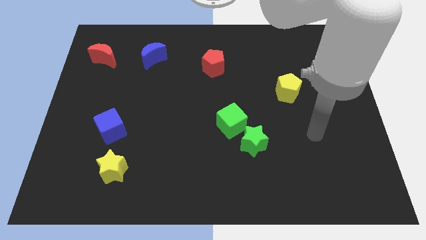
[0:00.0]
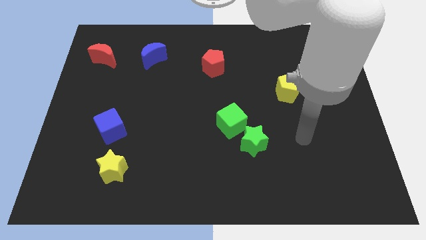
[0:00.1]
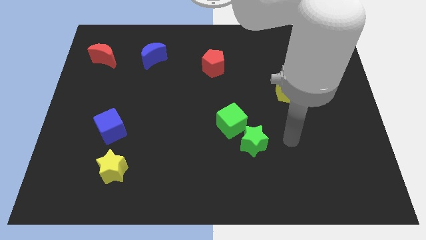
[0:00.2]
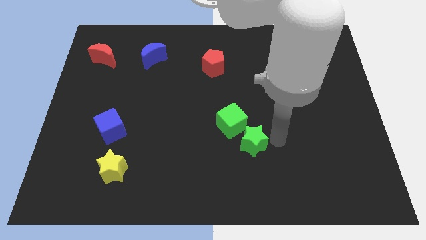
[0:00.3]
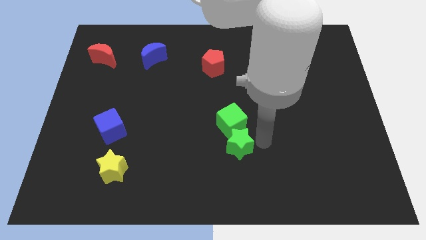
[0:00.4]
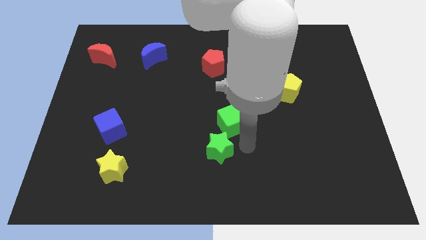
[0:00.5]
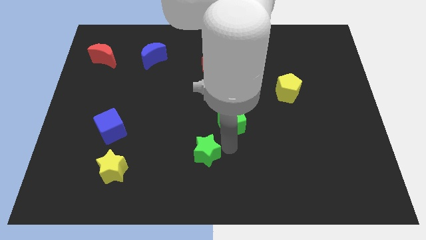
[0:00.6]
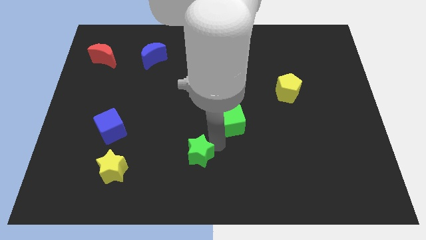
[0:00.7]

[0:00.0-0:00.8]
pull the green cube apart from the green star

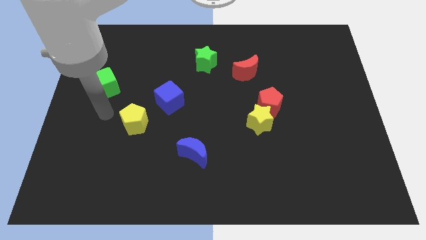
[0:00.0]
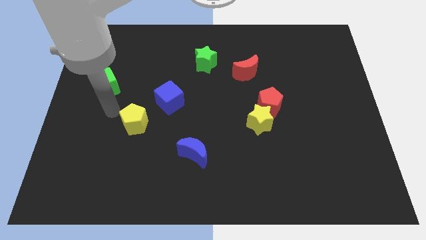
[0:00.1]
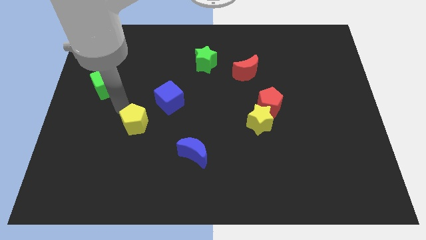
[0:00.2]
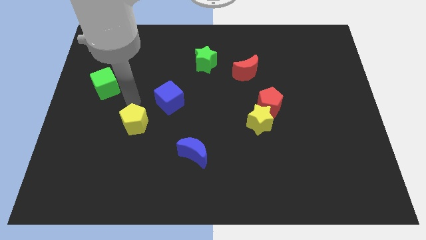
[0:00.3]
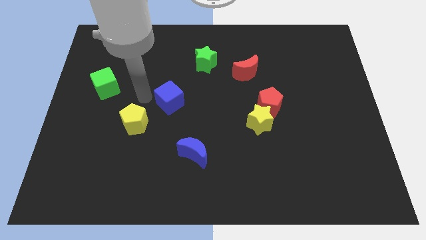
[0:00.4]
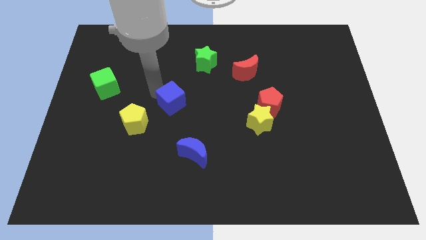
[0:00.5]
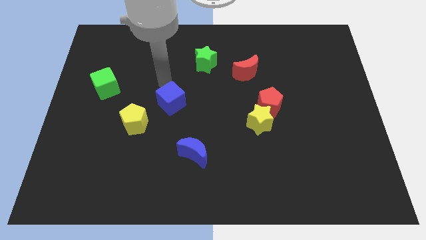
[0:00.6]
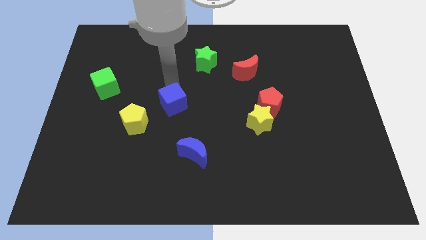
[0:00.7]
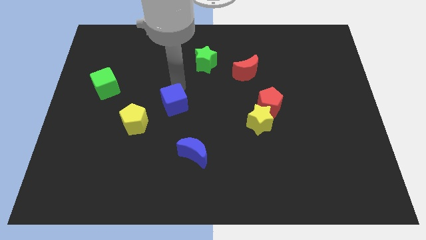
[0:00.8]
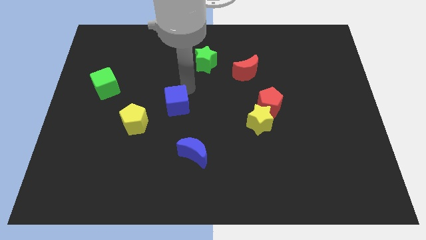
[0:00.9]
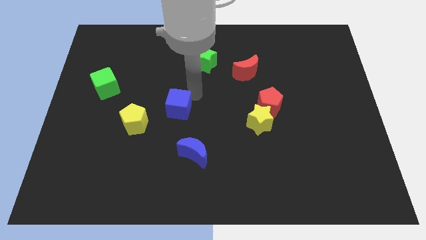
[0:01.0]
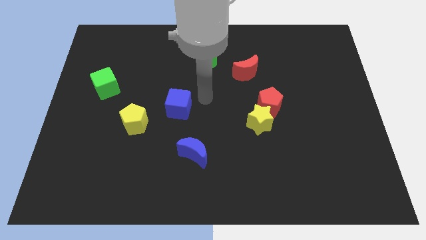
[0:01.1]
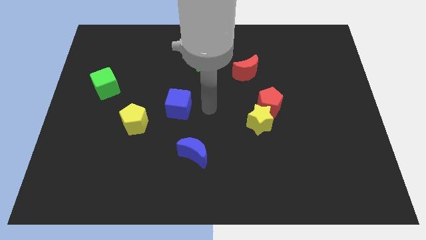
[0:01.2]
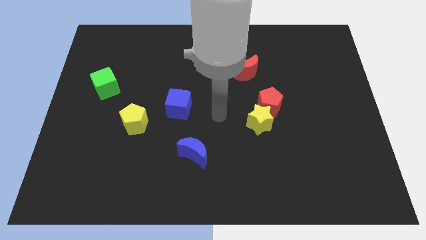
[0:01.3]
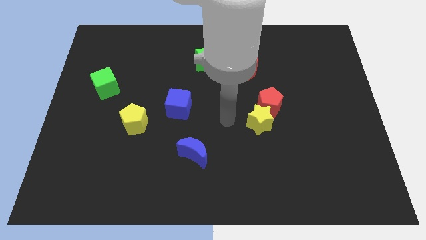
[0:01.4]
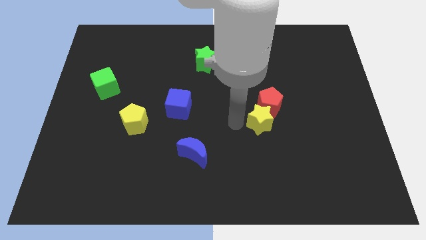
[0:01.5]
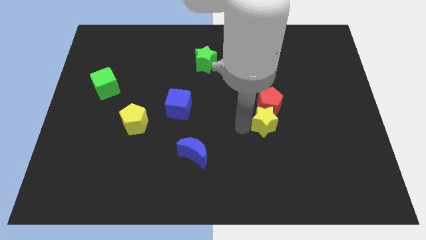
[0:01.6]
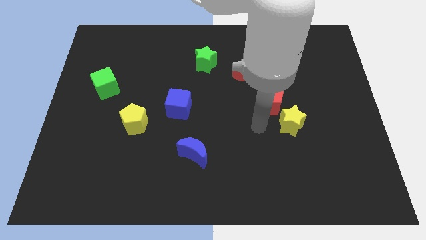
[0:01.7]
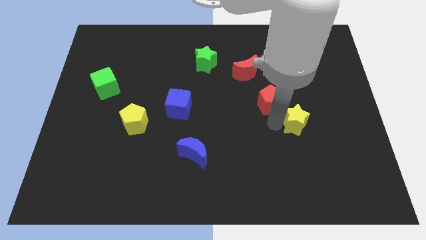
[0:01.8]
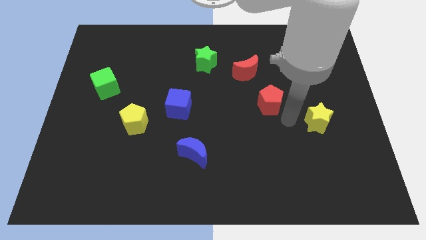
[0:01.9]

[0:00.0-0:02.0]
pull the red pentagon apart from the yellow star

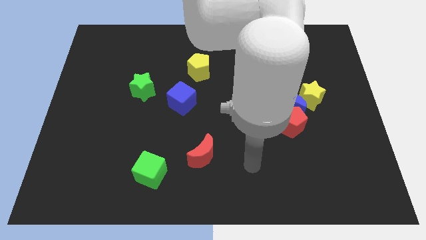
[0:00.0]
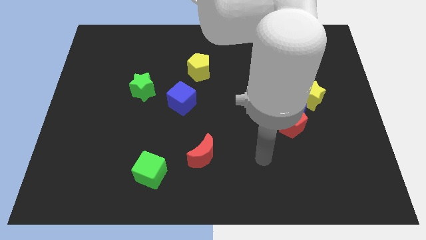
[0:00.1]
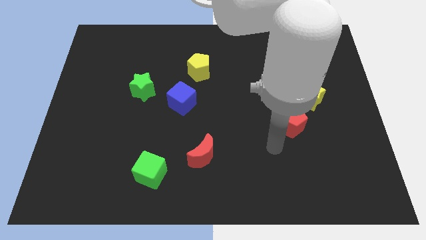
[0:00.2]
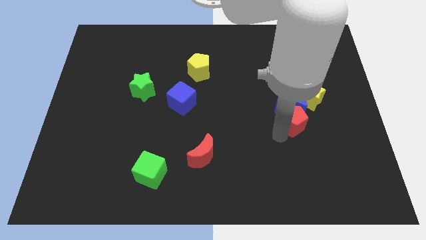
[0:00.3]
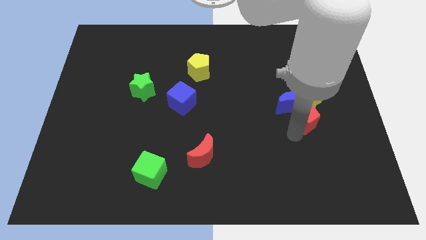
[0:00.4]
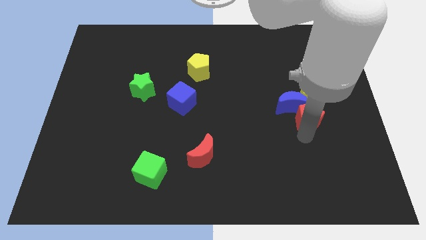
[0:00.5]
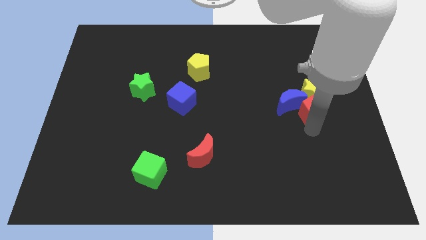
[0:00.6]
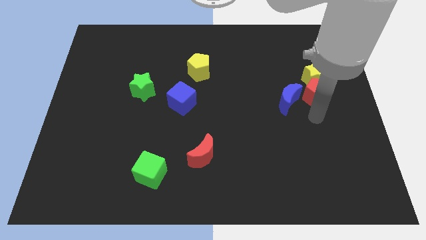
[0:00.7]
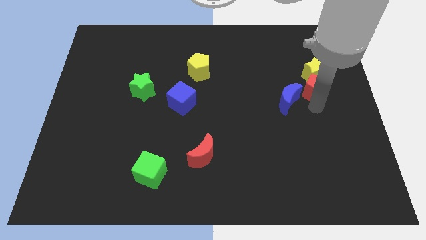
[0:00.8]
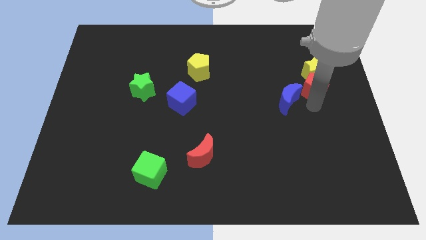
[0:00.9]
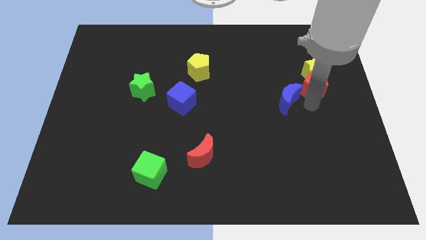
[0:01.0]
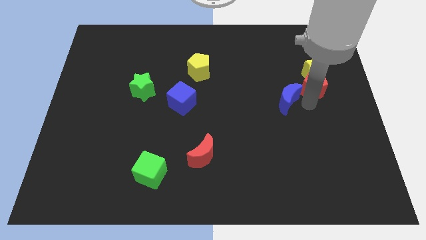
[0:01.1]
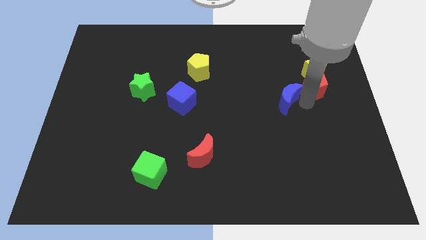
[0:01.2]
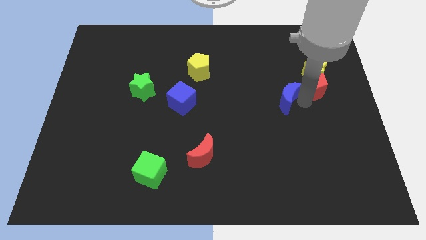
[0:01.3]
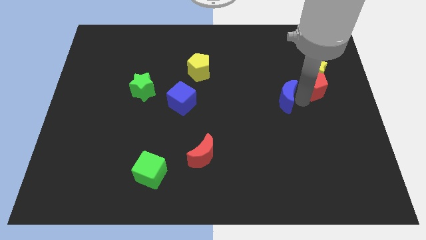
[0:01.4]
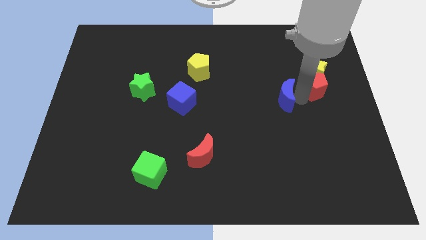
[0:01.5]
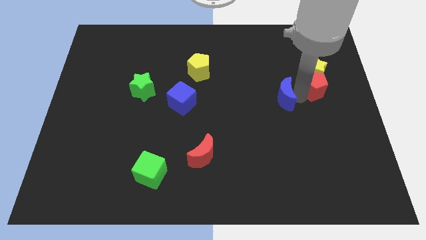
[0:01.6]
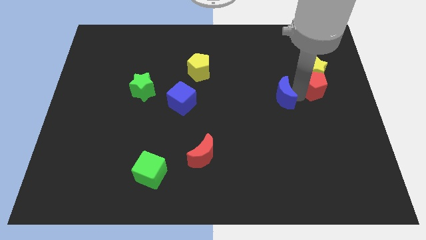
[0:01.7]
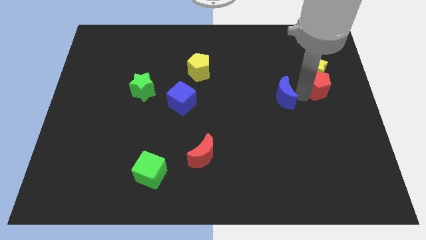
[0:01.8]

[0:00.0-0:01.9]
separate the blue moon from the red pentagon and yellow star

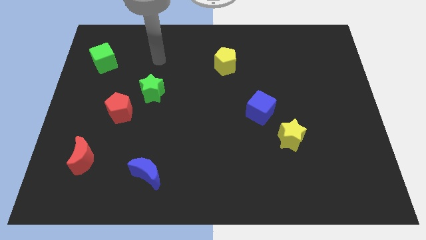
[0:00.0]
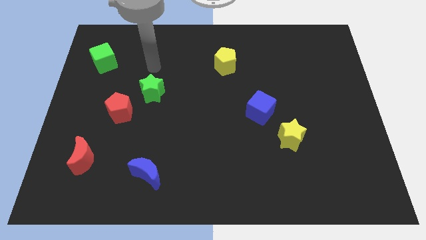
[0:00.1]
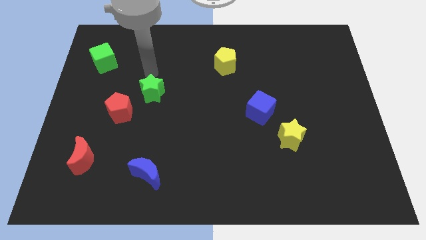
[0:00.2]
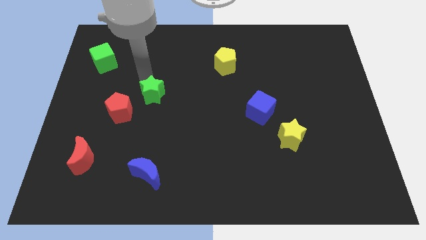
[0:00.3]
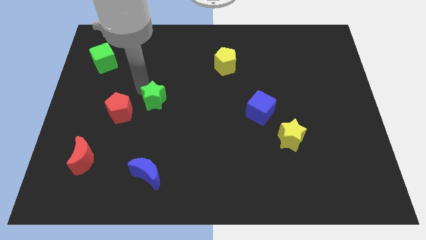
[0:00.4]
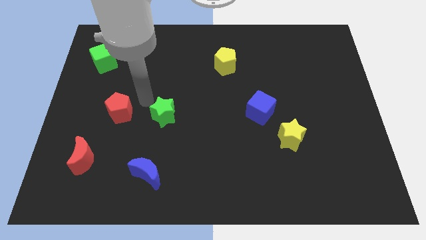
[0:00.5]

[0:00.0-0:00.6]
move the red pentagon away from the green star

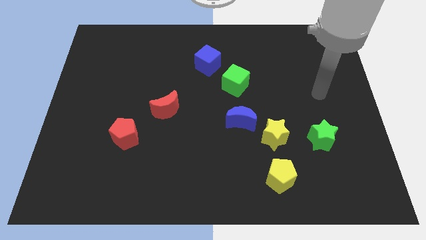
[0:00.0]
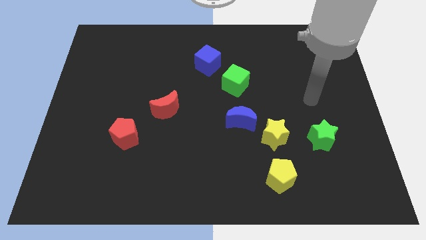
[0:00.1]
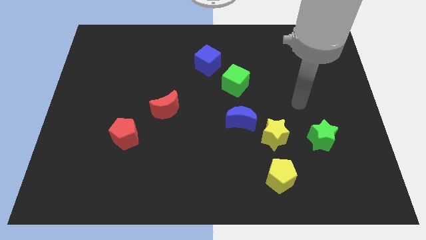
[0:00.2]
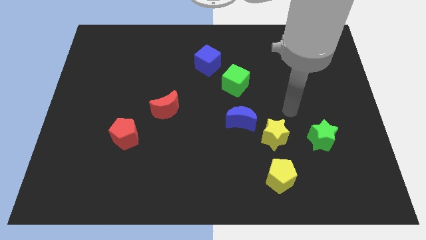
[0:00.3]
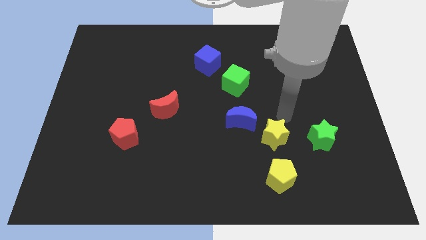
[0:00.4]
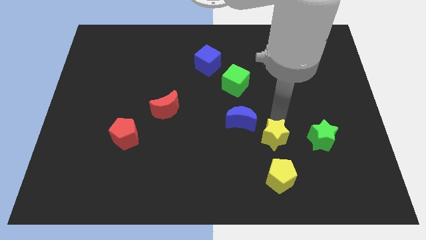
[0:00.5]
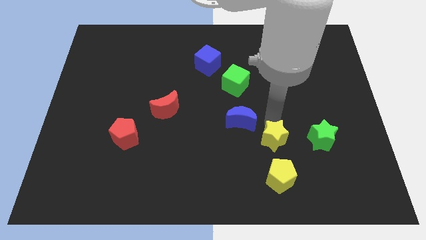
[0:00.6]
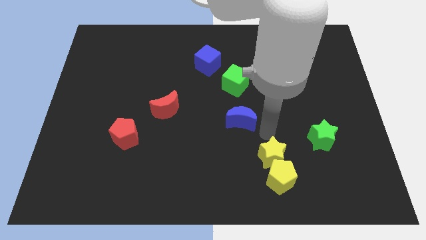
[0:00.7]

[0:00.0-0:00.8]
pull the blue moon apart from the yellow star

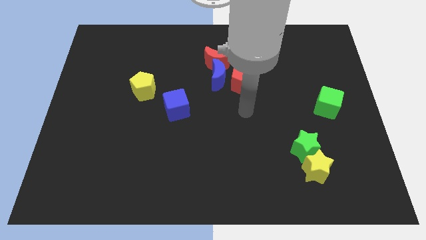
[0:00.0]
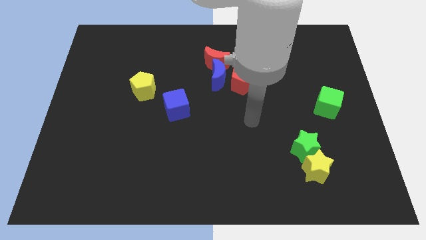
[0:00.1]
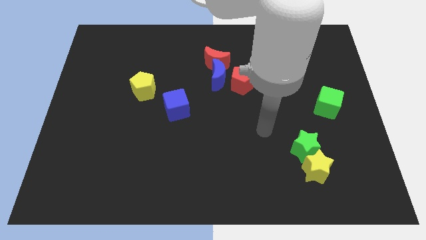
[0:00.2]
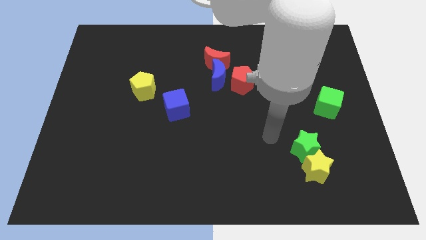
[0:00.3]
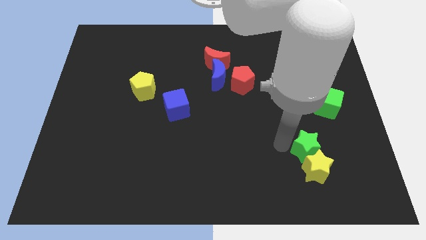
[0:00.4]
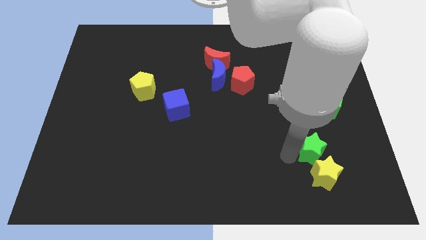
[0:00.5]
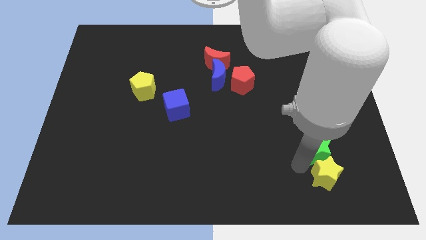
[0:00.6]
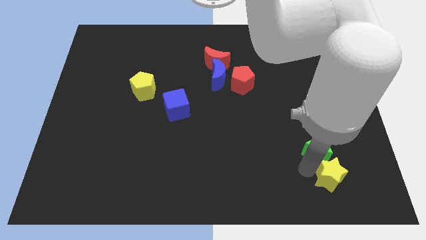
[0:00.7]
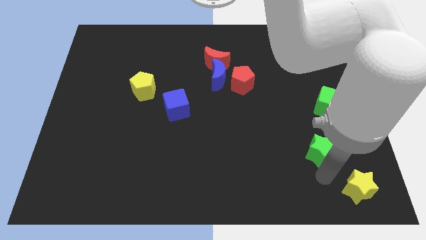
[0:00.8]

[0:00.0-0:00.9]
pull the green star apart from the yellow star

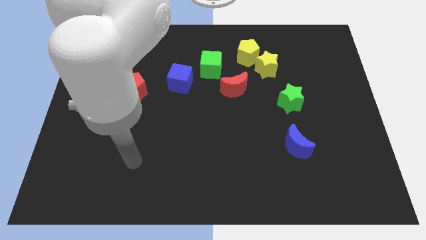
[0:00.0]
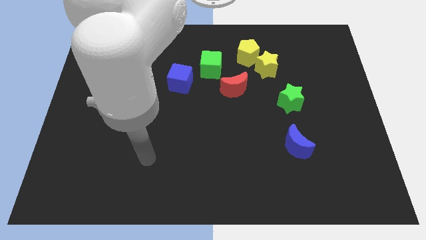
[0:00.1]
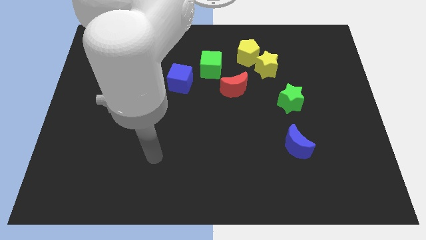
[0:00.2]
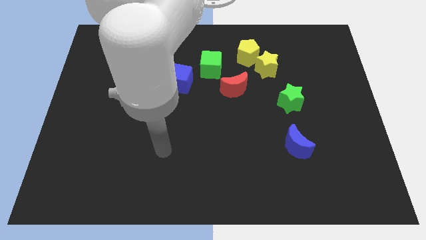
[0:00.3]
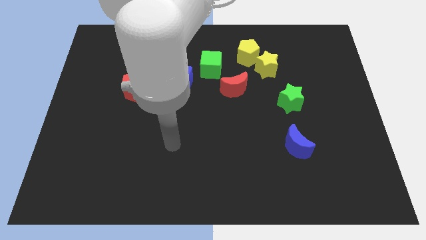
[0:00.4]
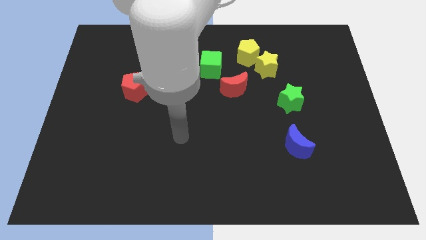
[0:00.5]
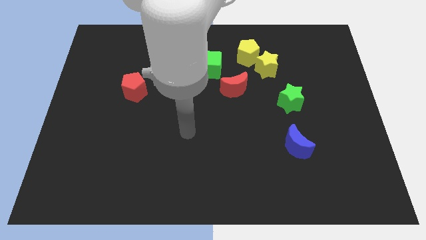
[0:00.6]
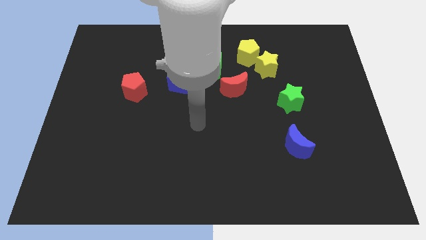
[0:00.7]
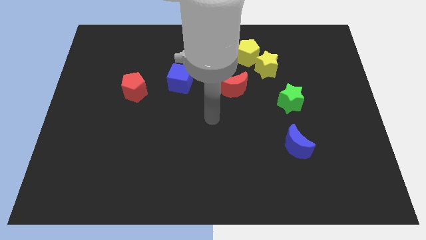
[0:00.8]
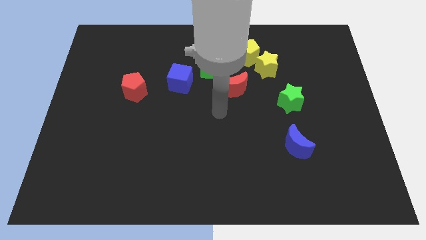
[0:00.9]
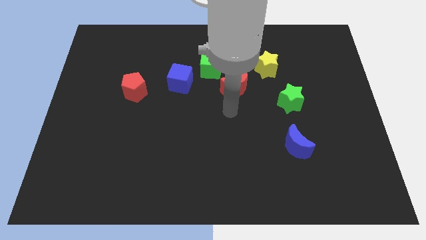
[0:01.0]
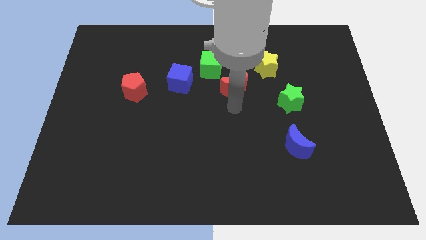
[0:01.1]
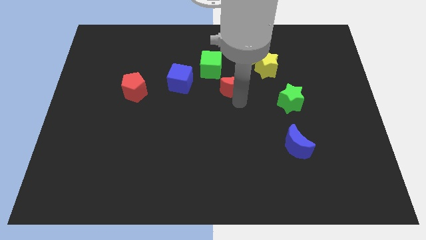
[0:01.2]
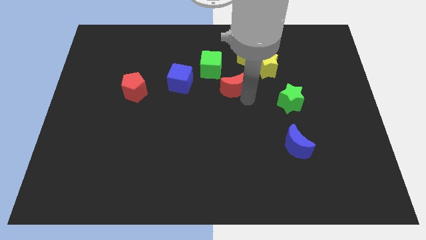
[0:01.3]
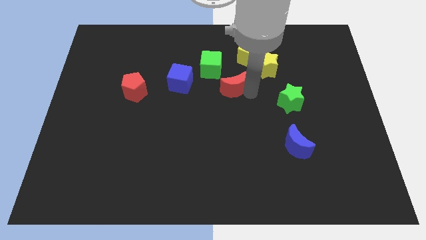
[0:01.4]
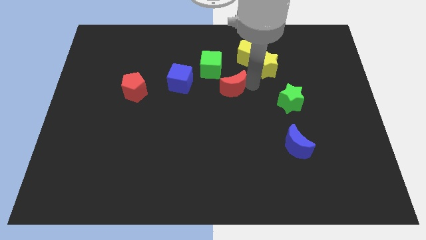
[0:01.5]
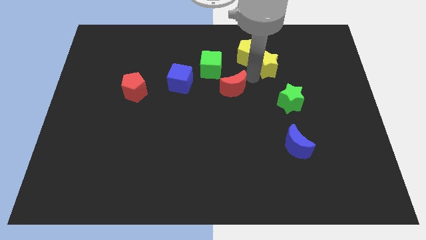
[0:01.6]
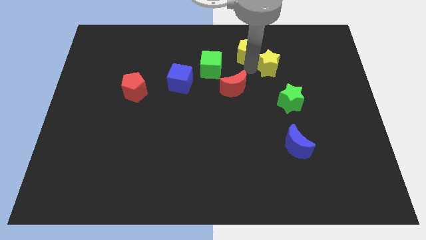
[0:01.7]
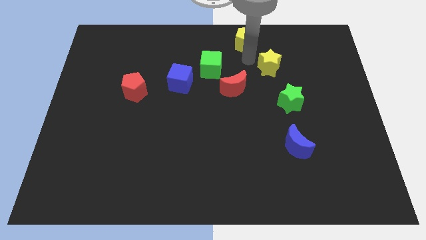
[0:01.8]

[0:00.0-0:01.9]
pull the yellow star apart from the yellow pentagon

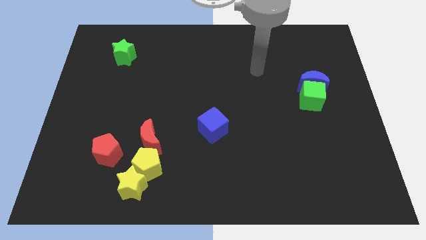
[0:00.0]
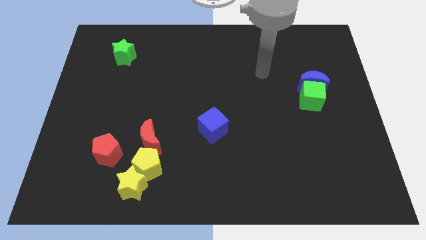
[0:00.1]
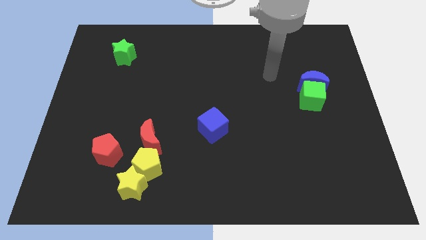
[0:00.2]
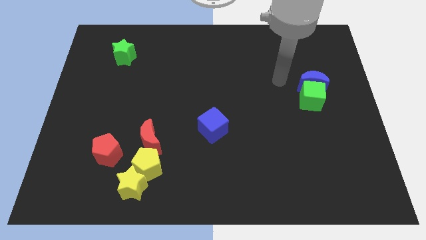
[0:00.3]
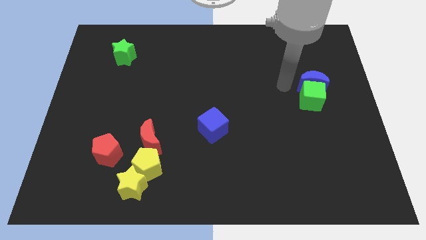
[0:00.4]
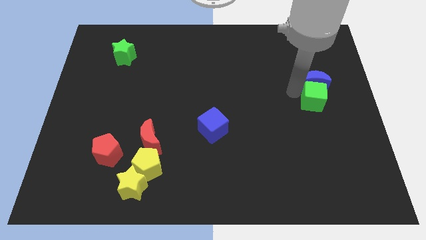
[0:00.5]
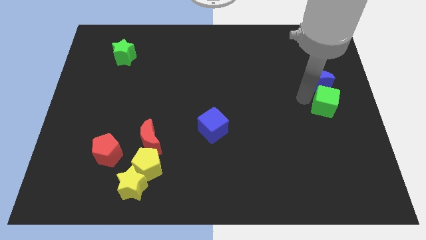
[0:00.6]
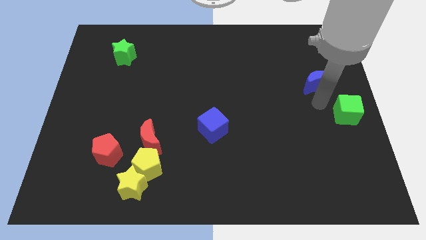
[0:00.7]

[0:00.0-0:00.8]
pull the blue moon apart from the green cube
